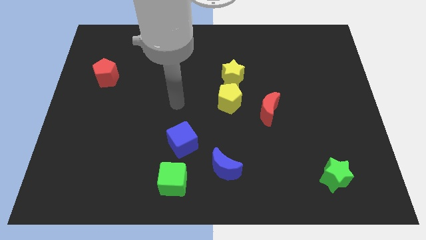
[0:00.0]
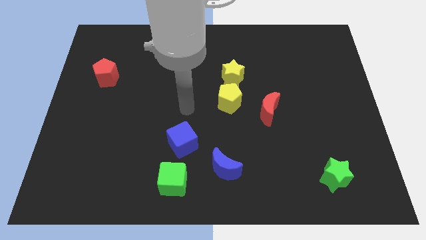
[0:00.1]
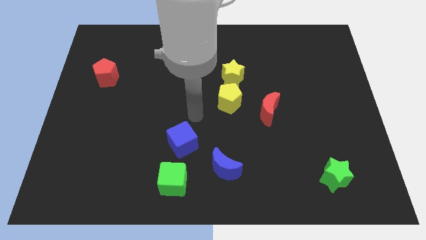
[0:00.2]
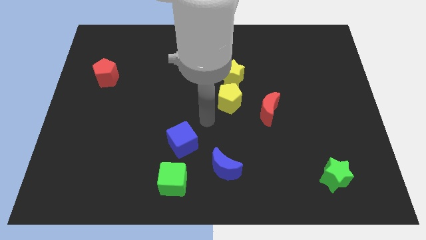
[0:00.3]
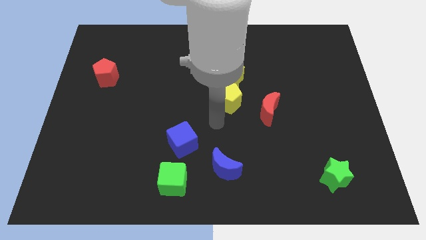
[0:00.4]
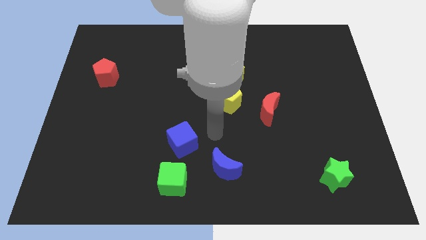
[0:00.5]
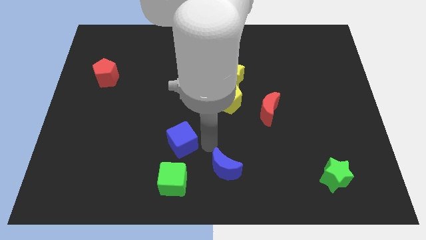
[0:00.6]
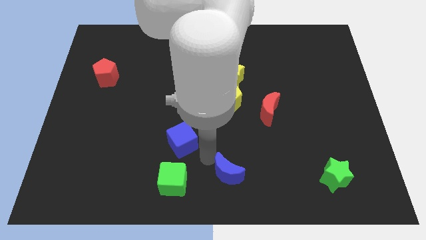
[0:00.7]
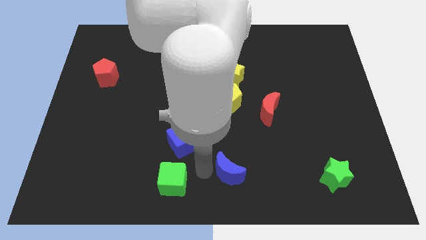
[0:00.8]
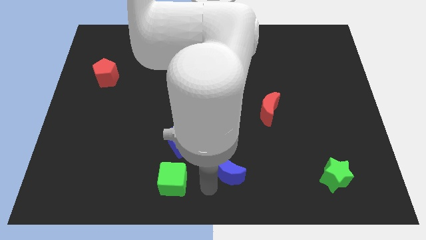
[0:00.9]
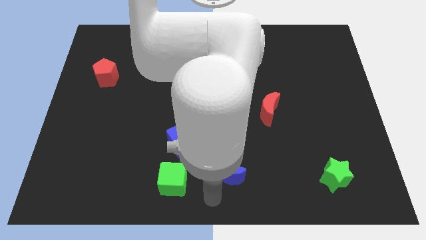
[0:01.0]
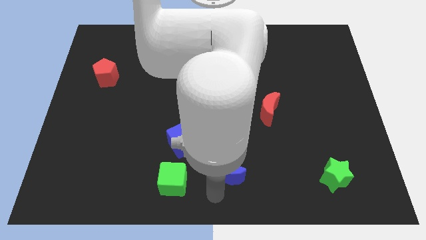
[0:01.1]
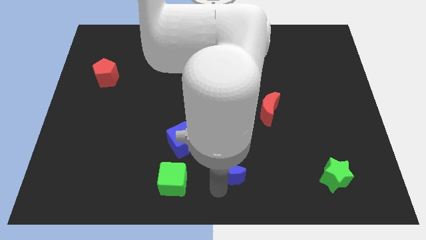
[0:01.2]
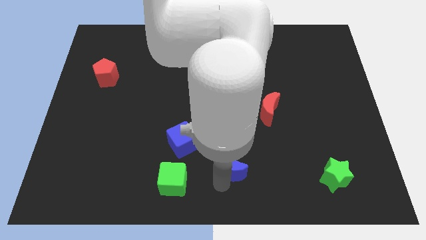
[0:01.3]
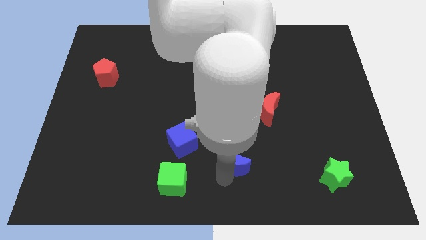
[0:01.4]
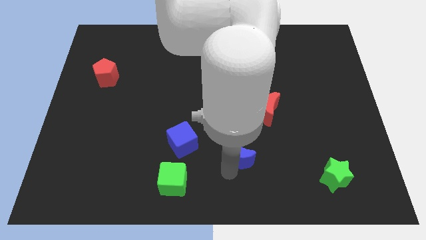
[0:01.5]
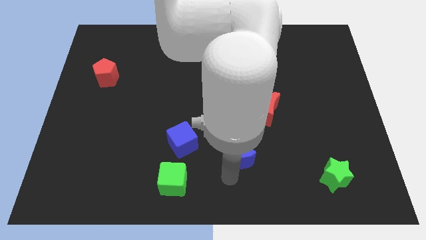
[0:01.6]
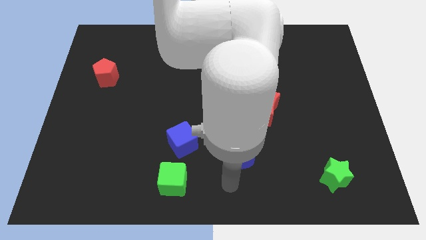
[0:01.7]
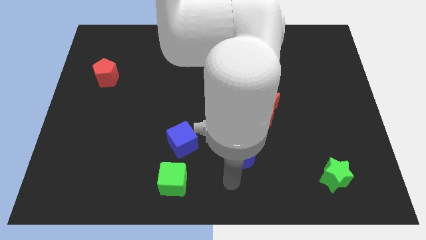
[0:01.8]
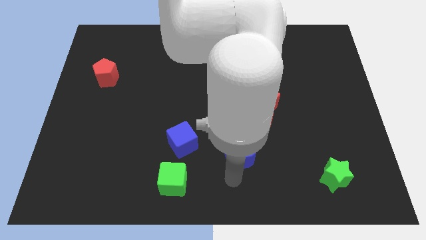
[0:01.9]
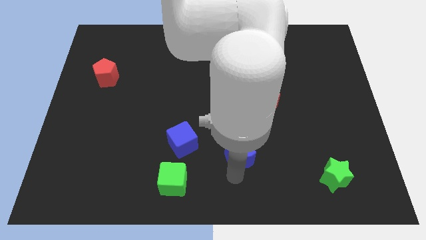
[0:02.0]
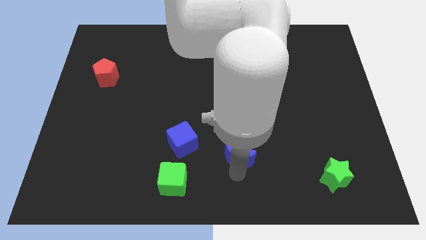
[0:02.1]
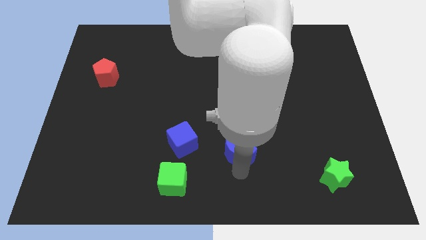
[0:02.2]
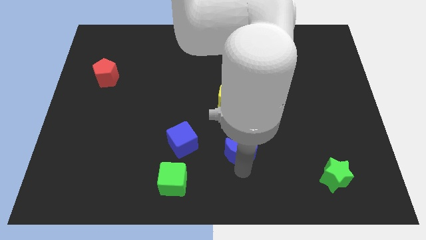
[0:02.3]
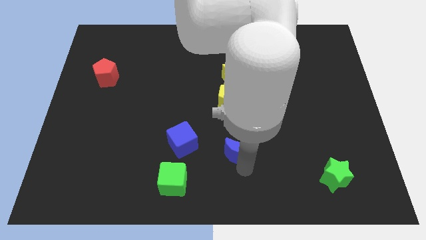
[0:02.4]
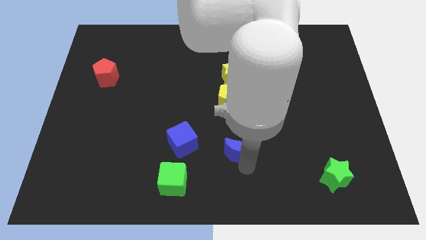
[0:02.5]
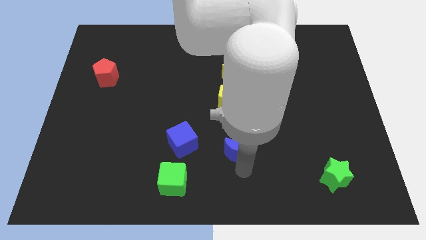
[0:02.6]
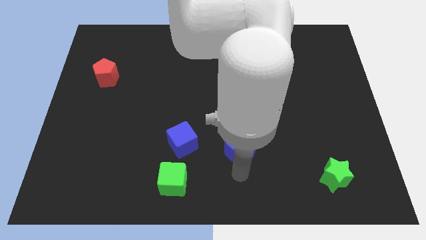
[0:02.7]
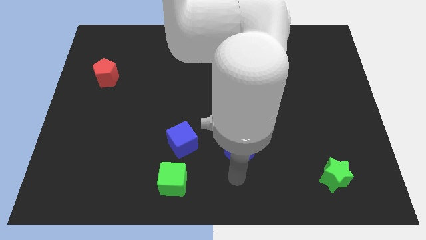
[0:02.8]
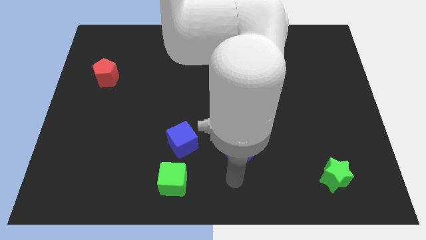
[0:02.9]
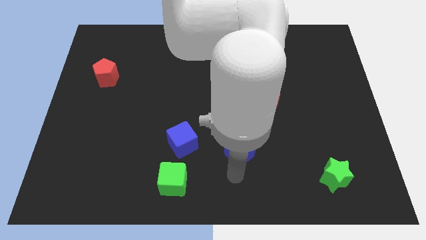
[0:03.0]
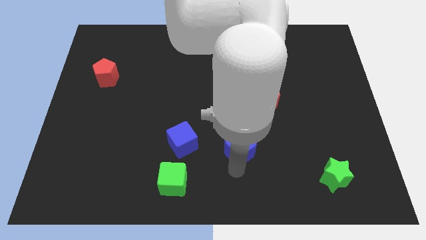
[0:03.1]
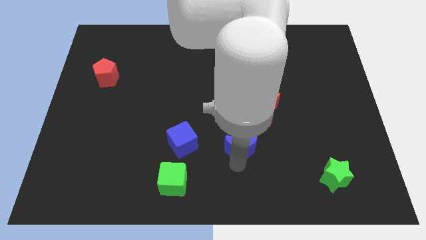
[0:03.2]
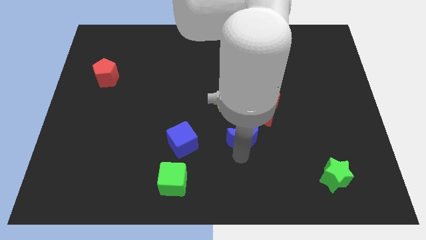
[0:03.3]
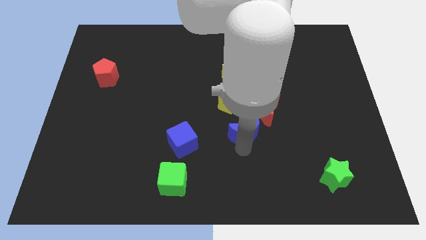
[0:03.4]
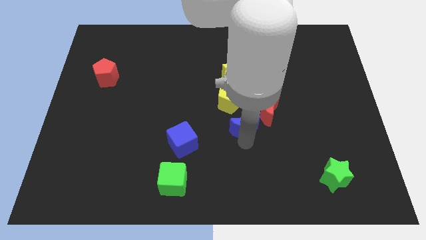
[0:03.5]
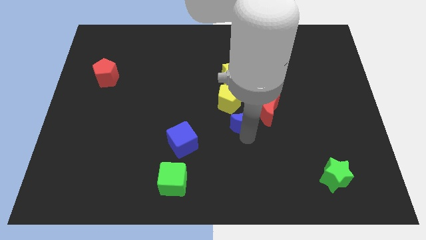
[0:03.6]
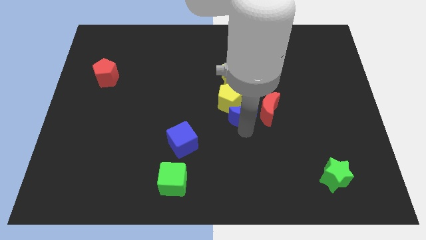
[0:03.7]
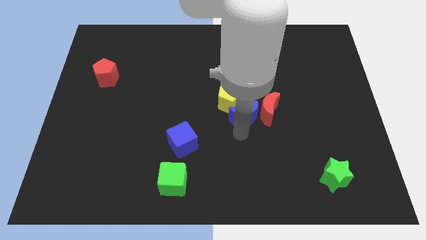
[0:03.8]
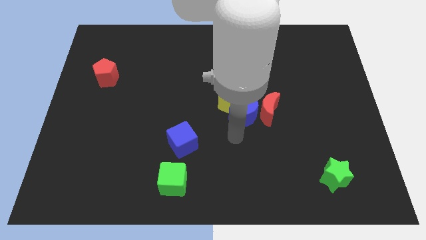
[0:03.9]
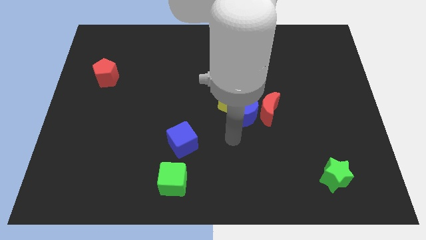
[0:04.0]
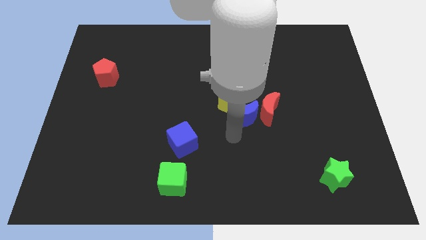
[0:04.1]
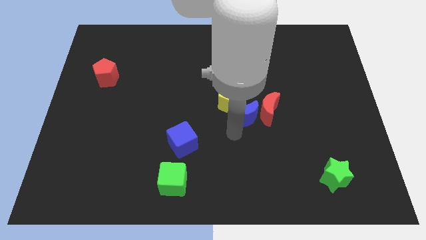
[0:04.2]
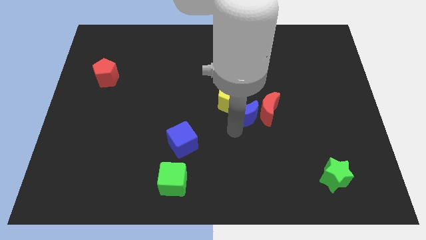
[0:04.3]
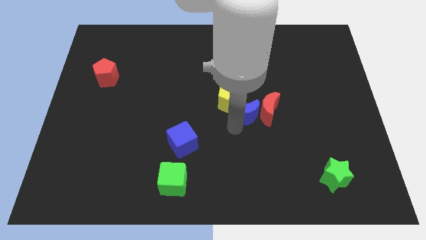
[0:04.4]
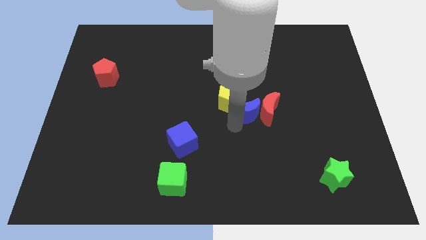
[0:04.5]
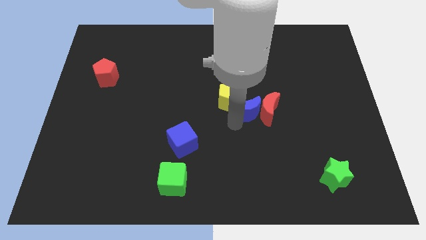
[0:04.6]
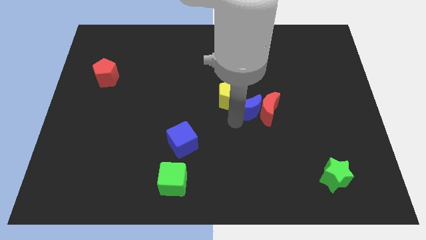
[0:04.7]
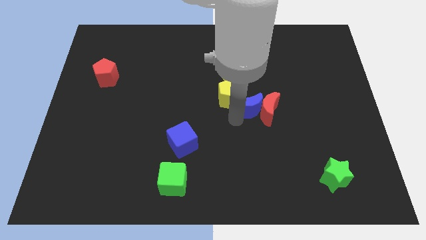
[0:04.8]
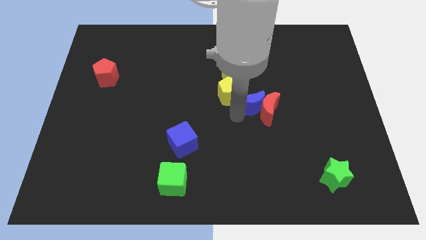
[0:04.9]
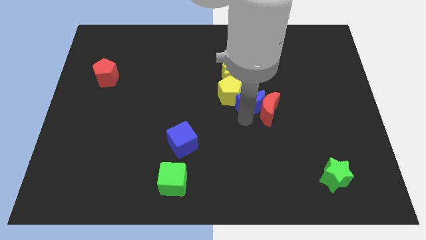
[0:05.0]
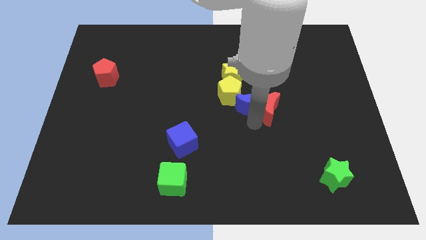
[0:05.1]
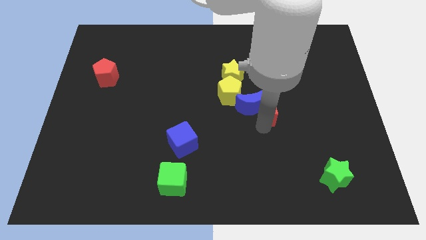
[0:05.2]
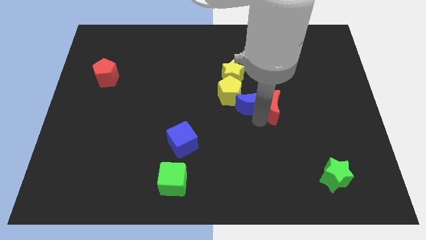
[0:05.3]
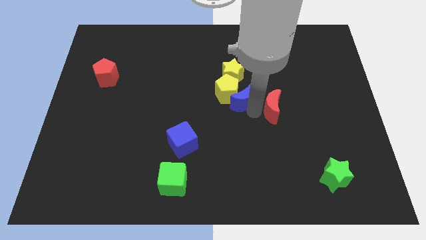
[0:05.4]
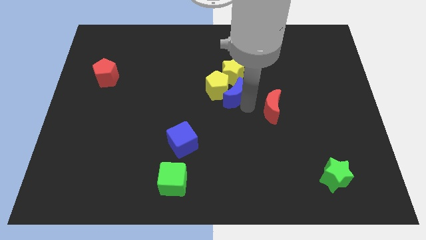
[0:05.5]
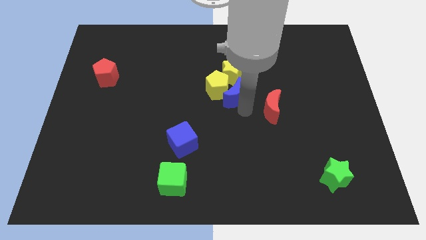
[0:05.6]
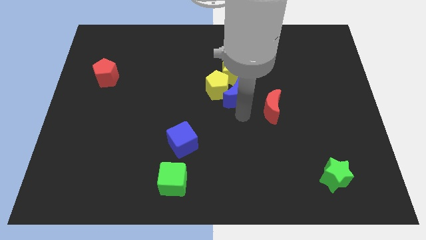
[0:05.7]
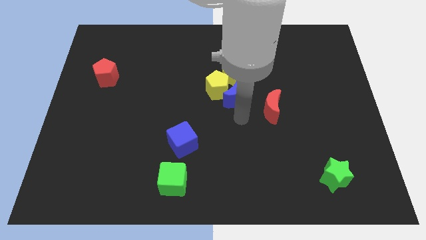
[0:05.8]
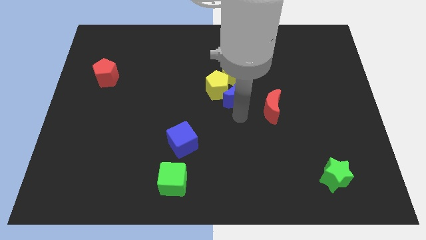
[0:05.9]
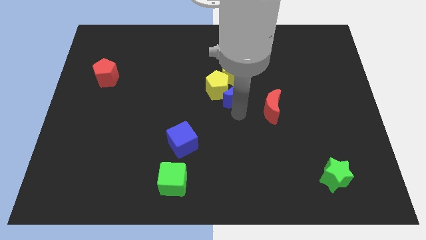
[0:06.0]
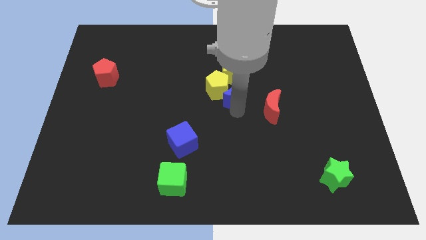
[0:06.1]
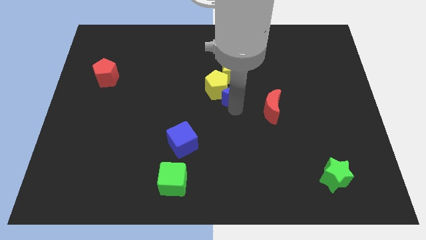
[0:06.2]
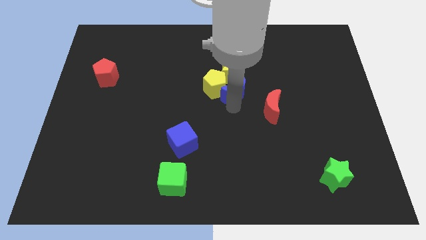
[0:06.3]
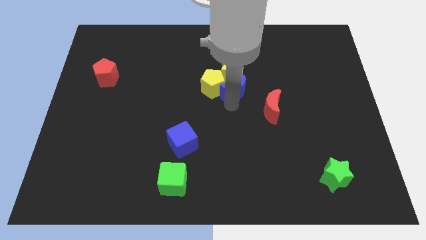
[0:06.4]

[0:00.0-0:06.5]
push the blue moon to the yellow star

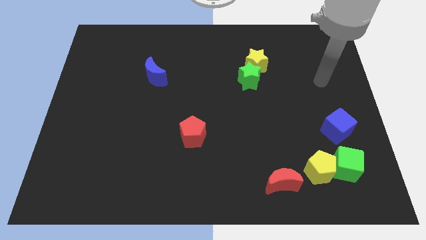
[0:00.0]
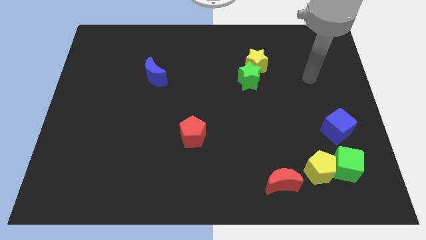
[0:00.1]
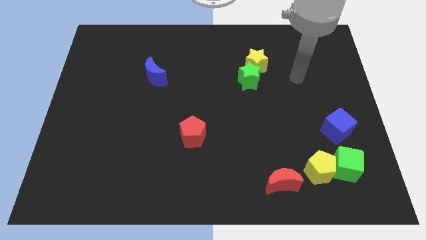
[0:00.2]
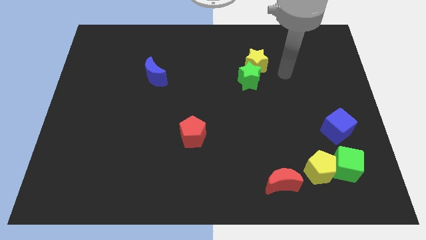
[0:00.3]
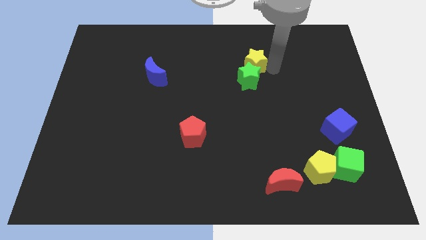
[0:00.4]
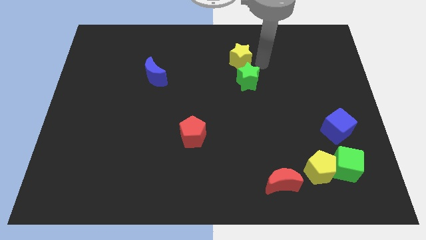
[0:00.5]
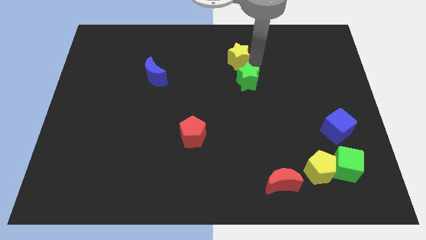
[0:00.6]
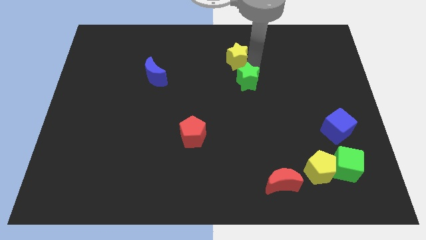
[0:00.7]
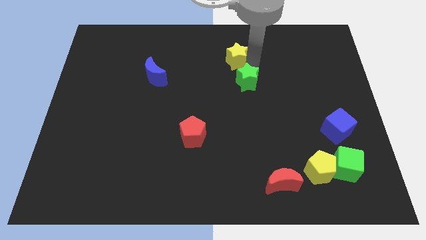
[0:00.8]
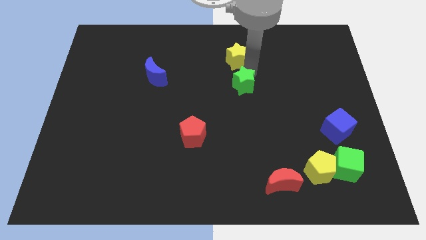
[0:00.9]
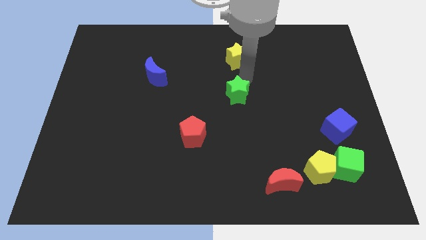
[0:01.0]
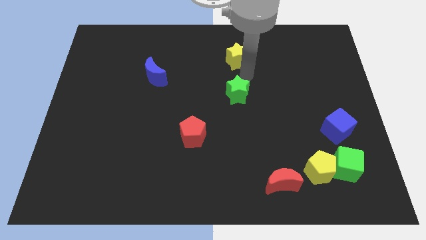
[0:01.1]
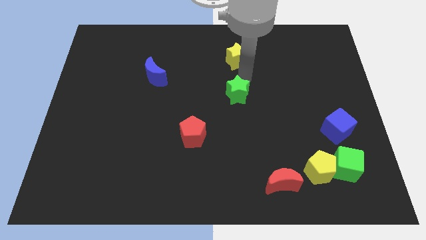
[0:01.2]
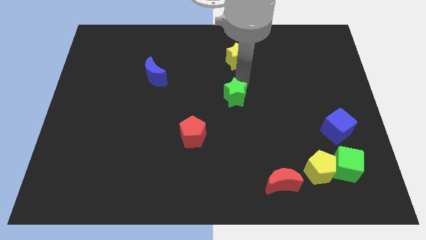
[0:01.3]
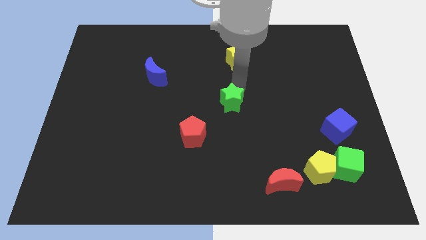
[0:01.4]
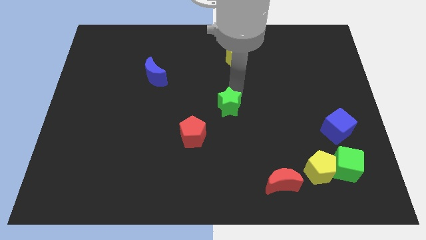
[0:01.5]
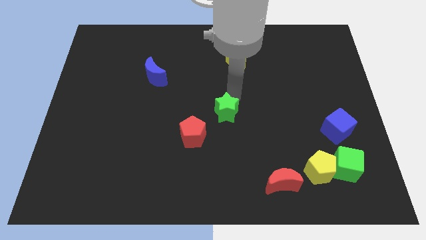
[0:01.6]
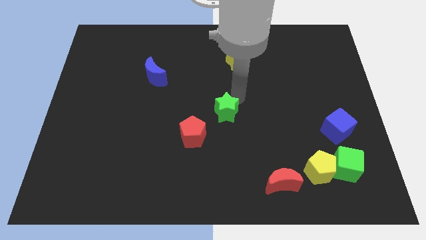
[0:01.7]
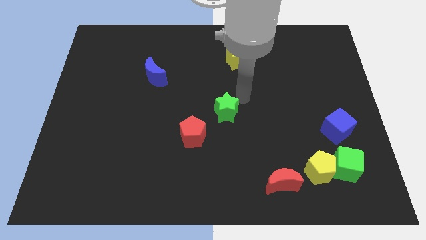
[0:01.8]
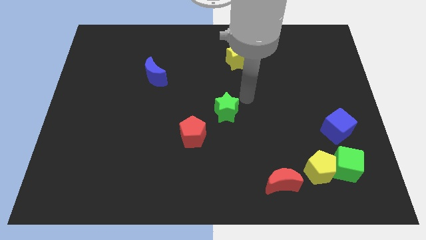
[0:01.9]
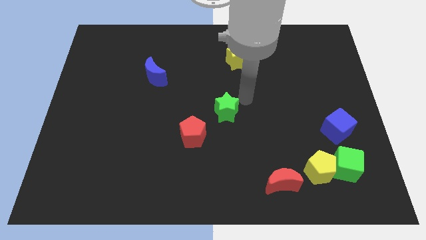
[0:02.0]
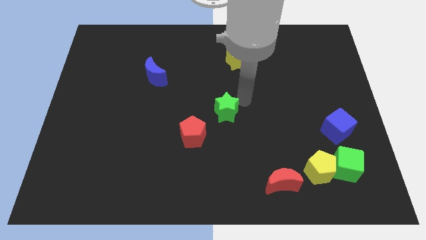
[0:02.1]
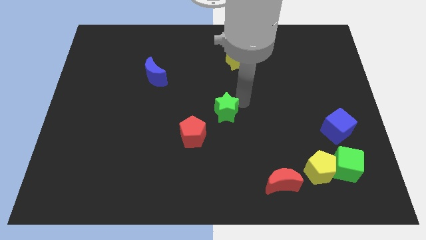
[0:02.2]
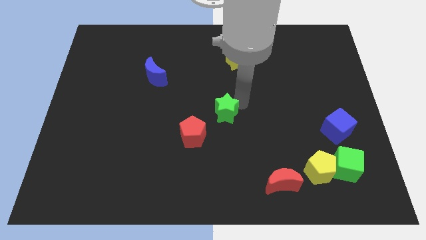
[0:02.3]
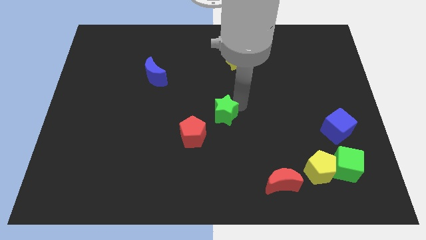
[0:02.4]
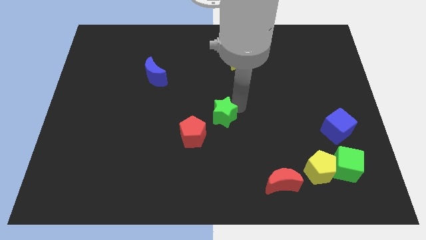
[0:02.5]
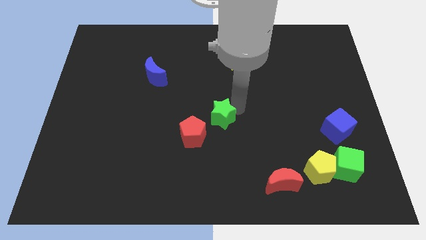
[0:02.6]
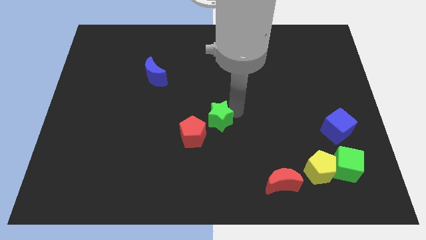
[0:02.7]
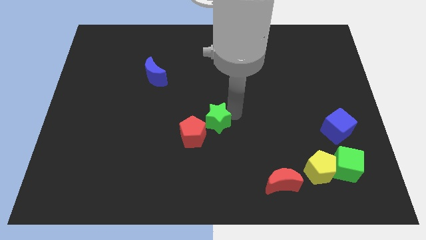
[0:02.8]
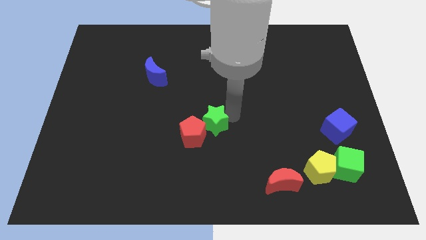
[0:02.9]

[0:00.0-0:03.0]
slide the green star close to the red pentagon
